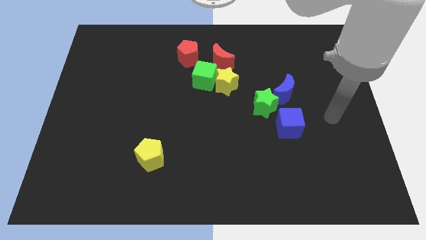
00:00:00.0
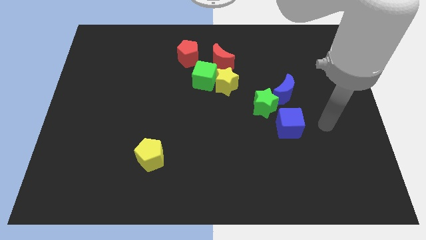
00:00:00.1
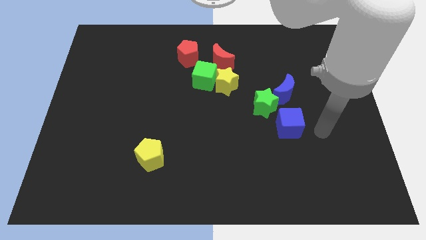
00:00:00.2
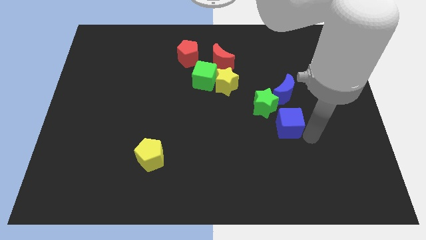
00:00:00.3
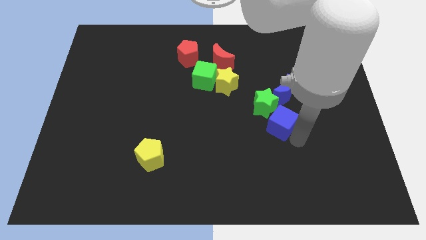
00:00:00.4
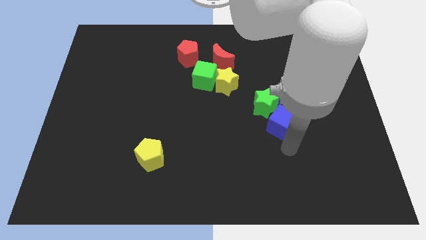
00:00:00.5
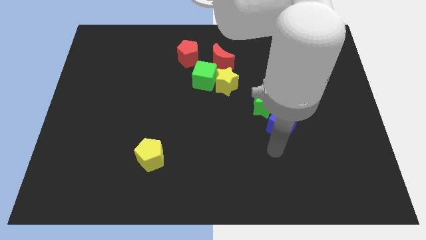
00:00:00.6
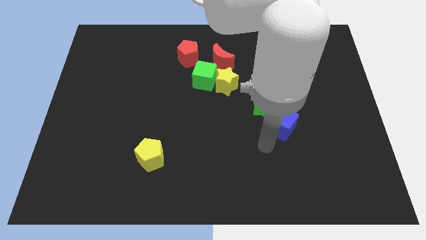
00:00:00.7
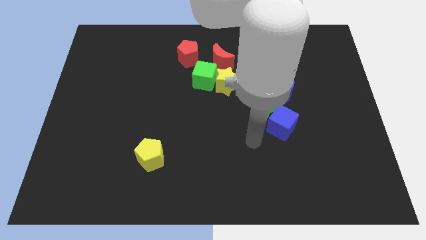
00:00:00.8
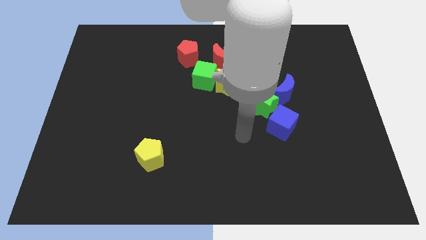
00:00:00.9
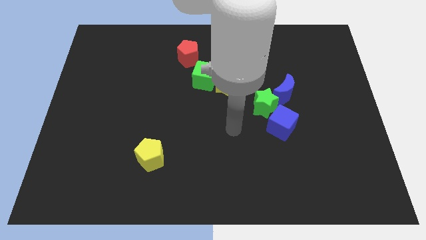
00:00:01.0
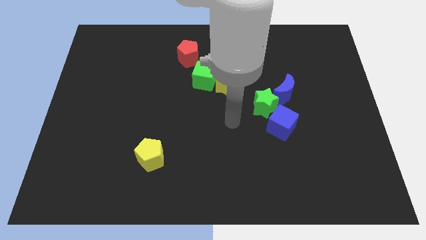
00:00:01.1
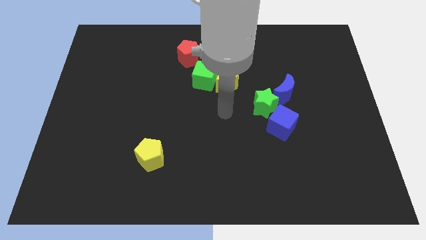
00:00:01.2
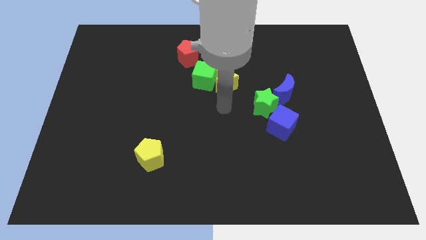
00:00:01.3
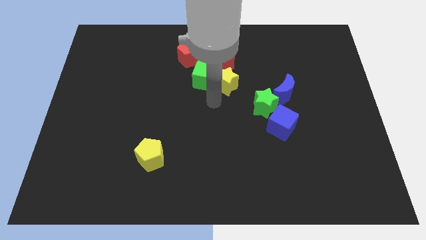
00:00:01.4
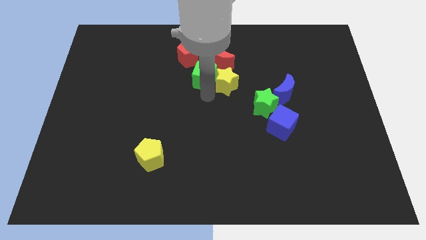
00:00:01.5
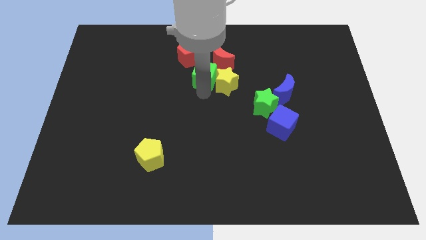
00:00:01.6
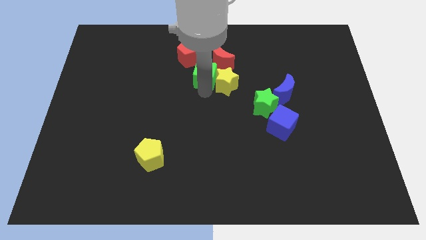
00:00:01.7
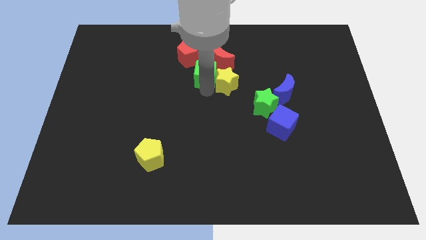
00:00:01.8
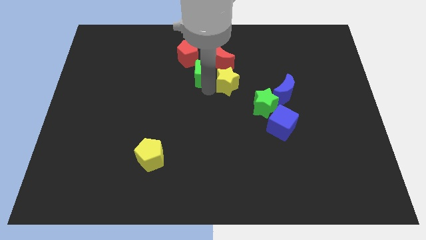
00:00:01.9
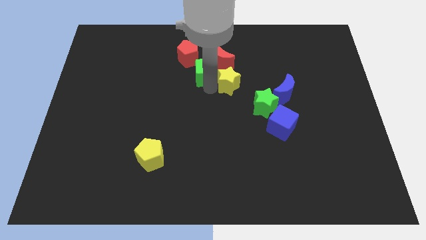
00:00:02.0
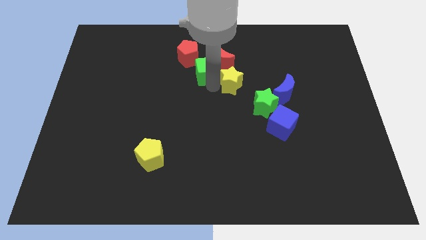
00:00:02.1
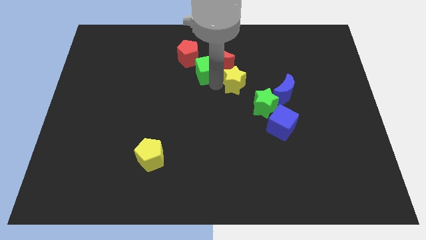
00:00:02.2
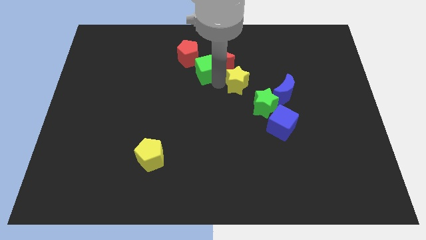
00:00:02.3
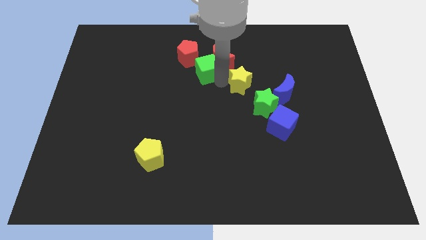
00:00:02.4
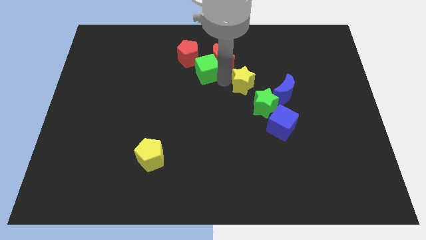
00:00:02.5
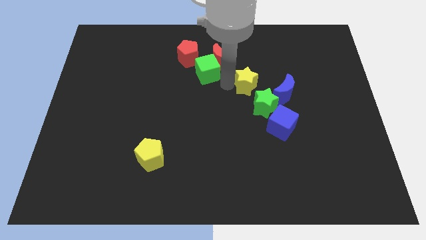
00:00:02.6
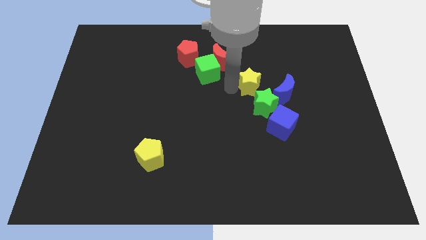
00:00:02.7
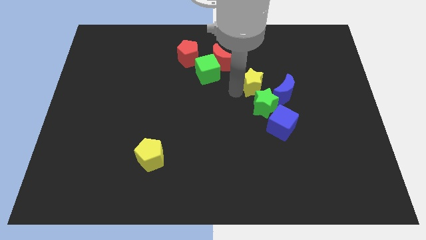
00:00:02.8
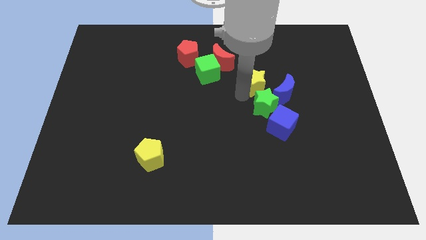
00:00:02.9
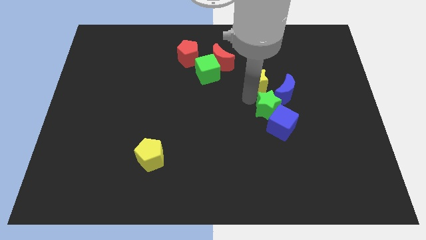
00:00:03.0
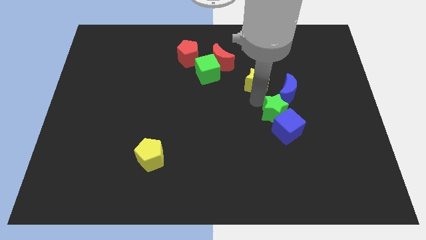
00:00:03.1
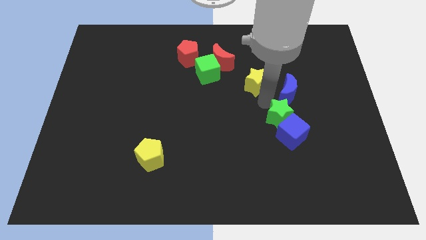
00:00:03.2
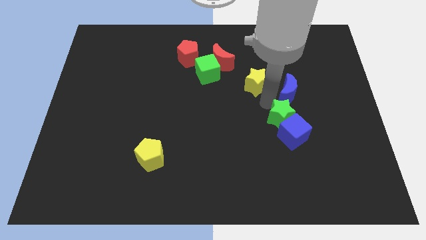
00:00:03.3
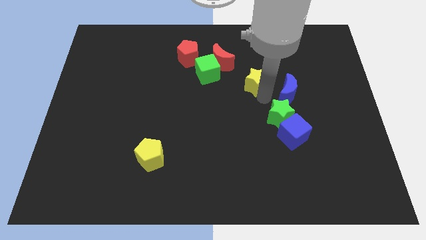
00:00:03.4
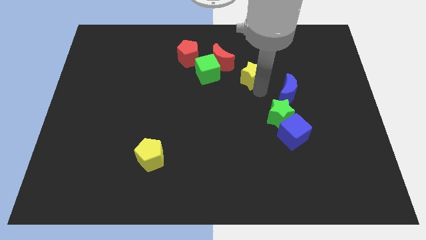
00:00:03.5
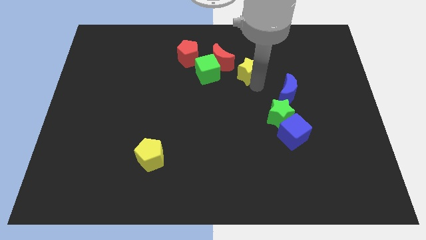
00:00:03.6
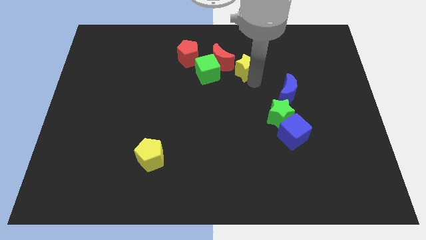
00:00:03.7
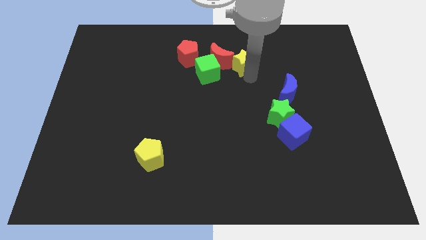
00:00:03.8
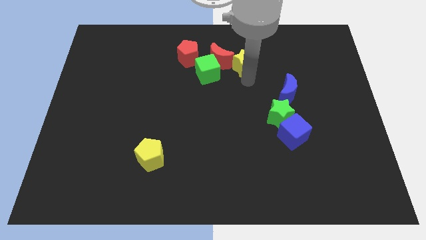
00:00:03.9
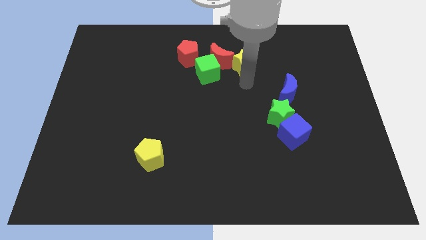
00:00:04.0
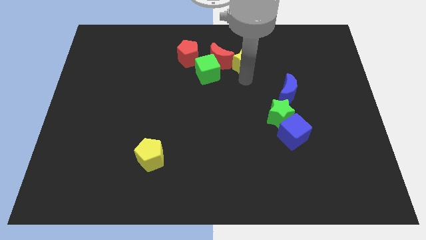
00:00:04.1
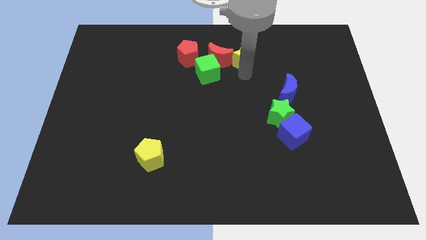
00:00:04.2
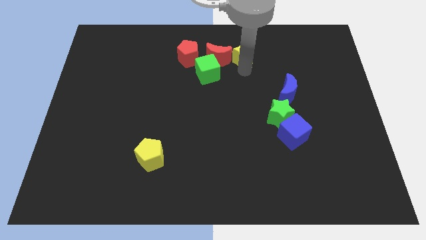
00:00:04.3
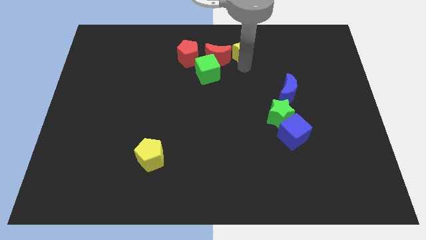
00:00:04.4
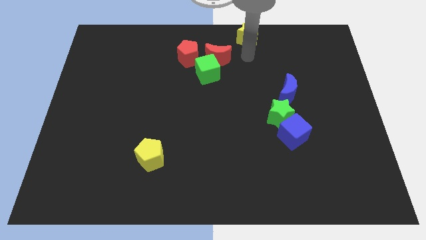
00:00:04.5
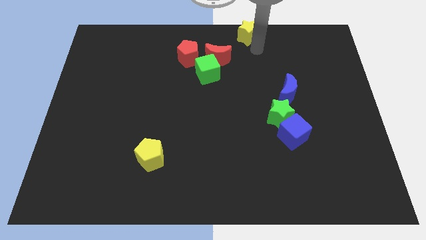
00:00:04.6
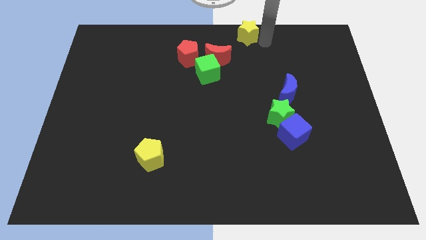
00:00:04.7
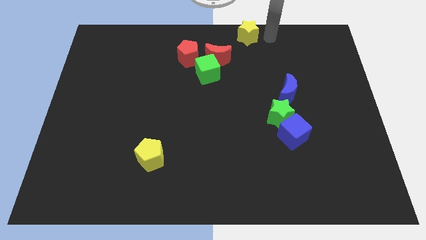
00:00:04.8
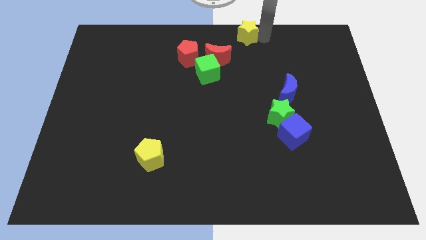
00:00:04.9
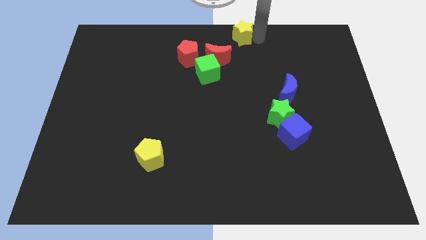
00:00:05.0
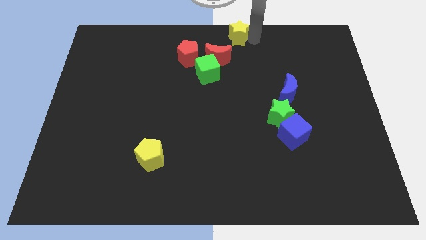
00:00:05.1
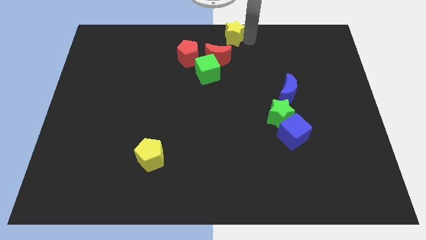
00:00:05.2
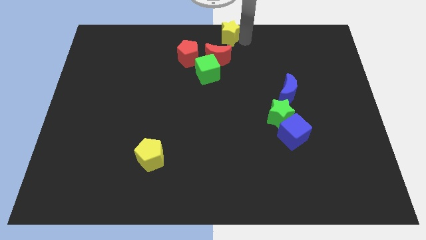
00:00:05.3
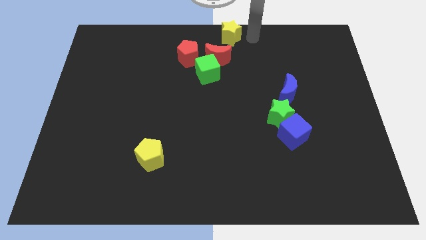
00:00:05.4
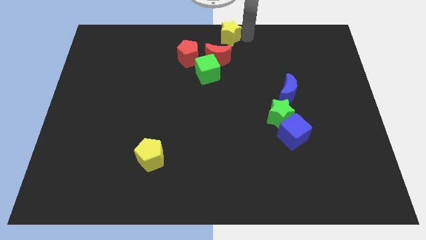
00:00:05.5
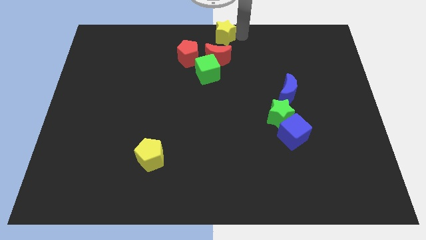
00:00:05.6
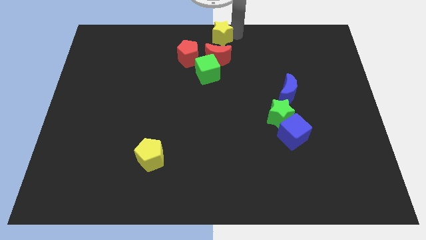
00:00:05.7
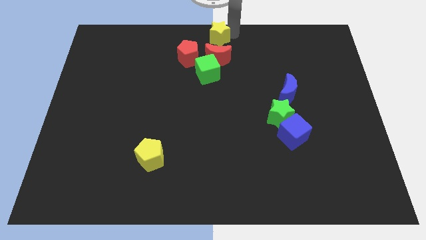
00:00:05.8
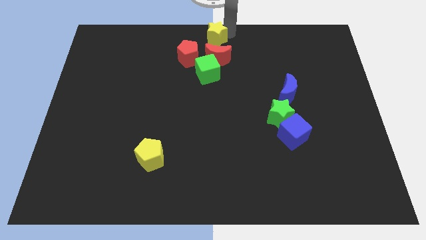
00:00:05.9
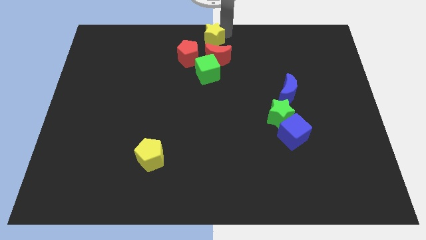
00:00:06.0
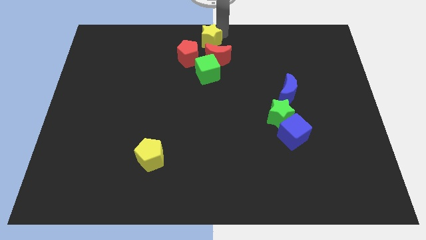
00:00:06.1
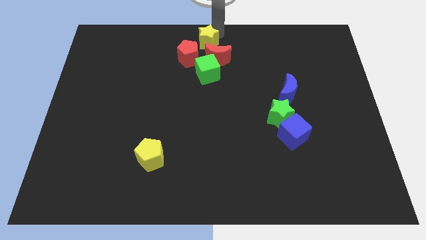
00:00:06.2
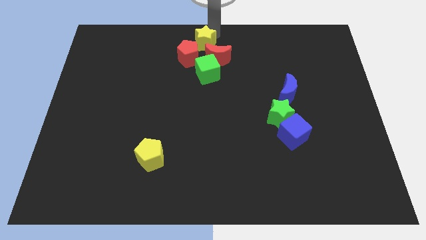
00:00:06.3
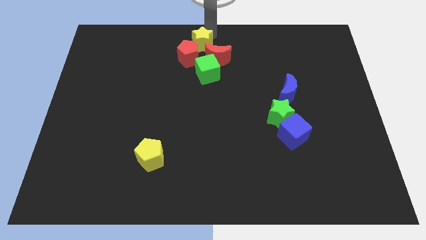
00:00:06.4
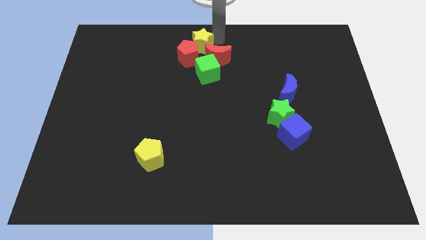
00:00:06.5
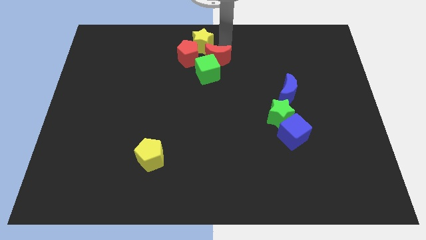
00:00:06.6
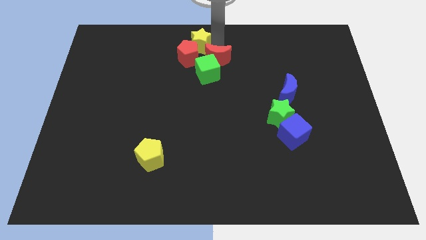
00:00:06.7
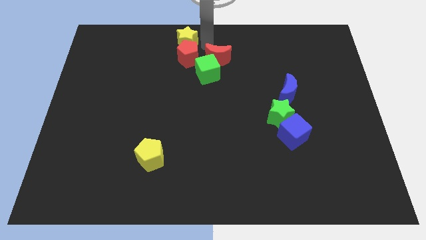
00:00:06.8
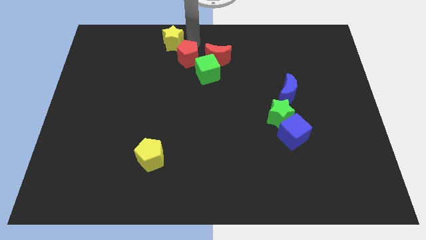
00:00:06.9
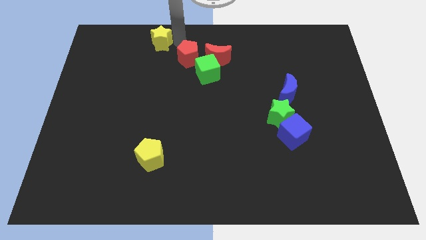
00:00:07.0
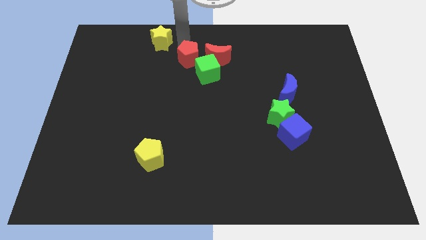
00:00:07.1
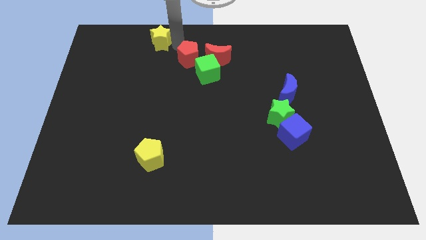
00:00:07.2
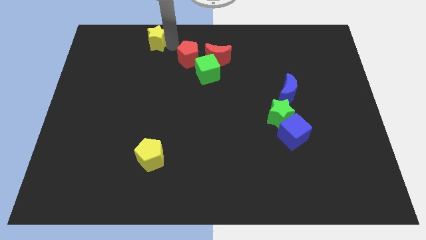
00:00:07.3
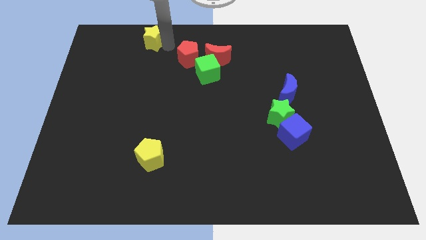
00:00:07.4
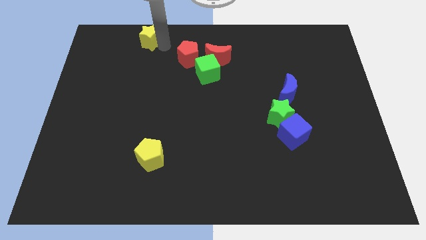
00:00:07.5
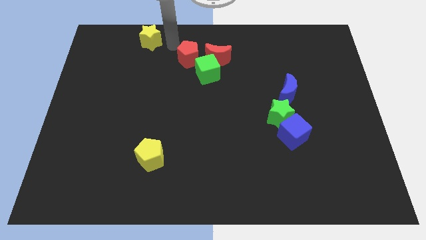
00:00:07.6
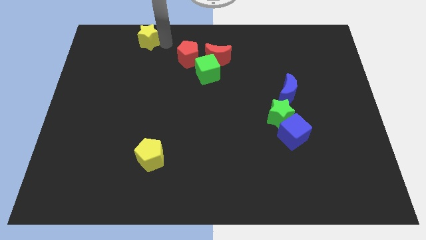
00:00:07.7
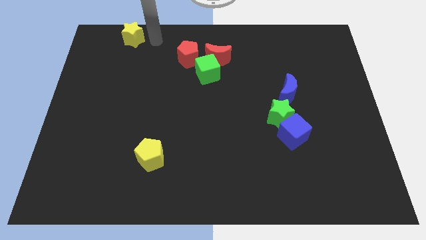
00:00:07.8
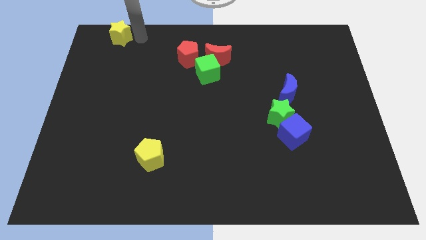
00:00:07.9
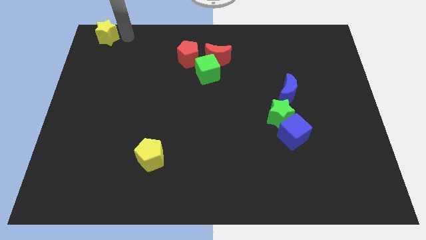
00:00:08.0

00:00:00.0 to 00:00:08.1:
put the yellow star to the upper left corner
